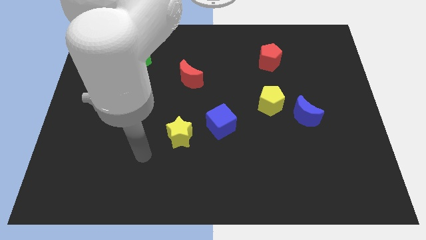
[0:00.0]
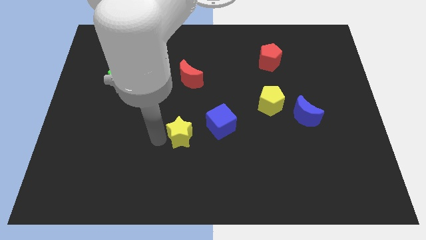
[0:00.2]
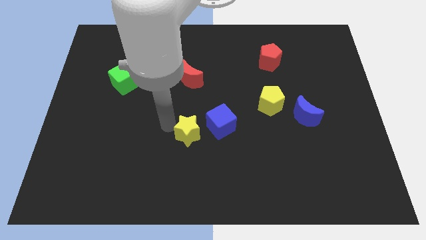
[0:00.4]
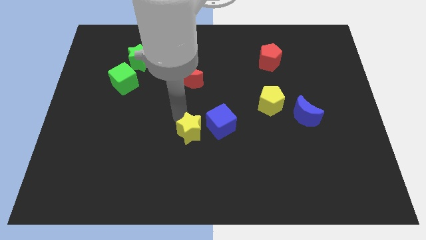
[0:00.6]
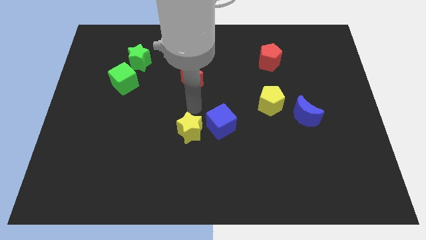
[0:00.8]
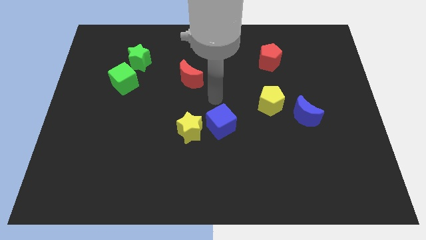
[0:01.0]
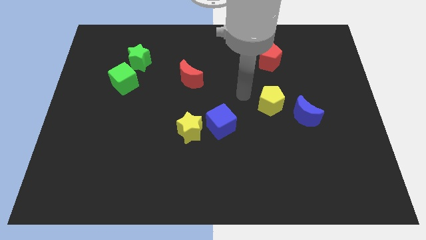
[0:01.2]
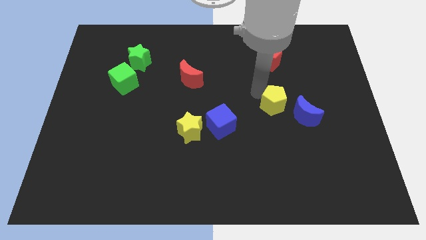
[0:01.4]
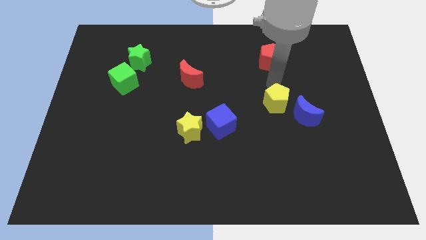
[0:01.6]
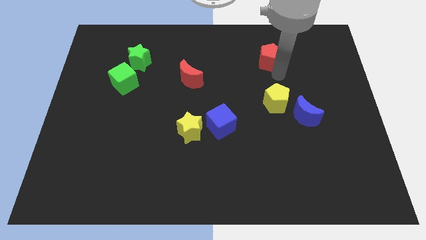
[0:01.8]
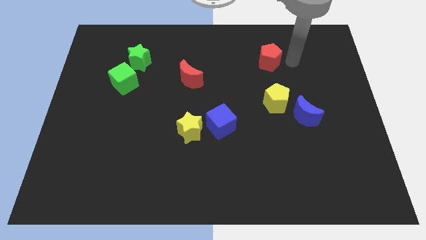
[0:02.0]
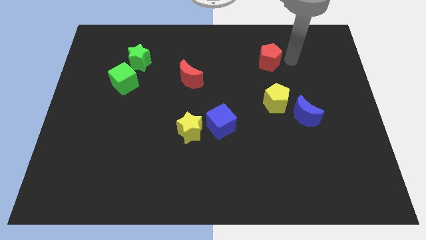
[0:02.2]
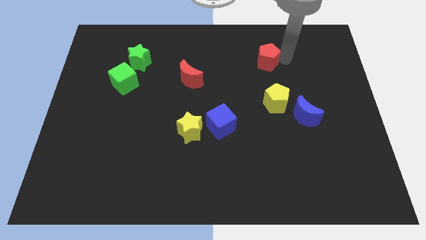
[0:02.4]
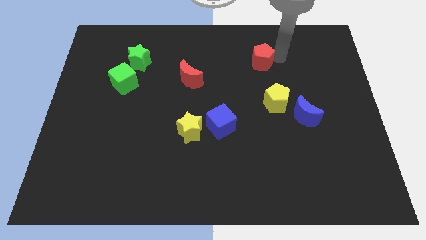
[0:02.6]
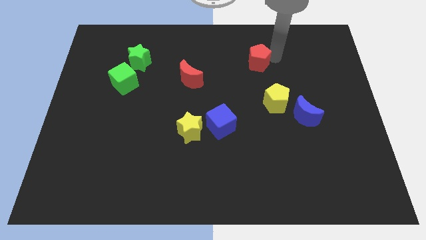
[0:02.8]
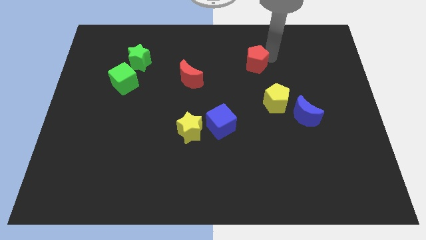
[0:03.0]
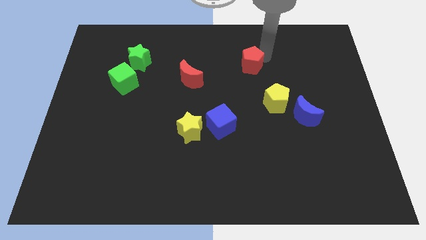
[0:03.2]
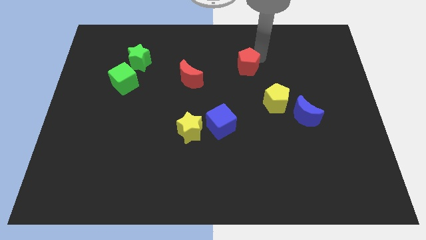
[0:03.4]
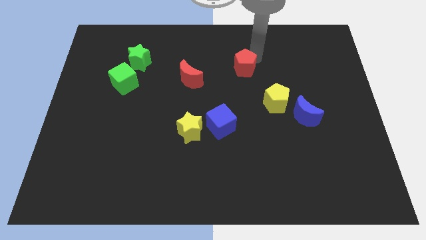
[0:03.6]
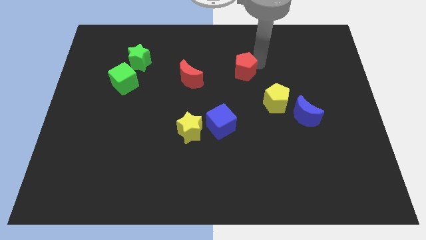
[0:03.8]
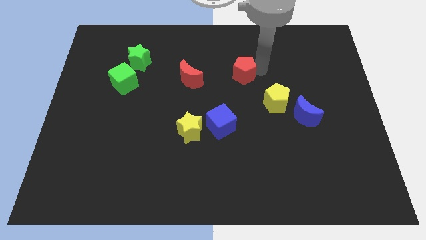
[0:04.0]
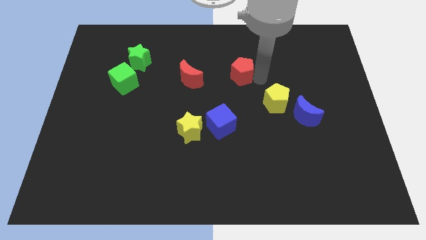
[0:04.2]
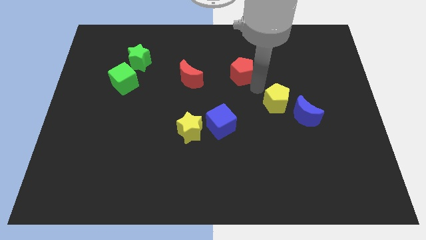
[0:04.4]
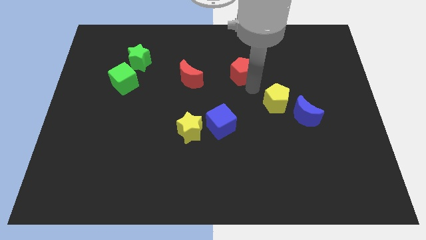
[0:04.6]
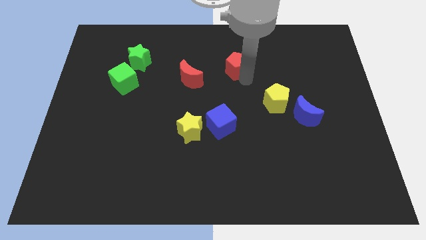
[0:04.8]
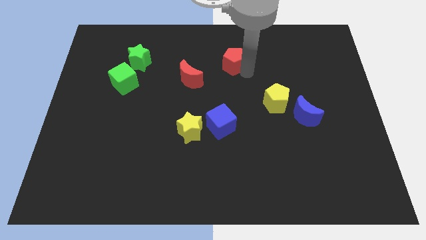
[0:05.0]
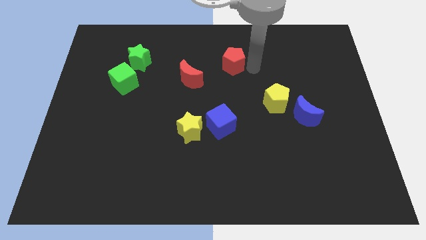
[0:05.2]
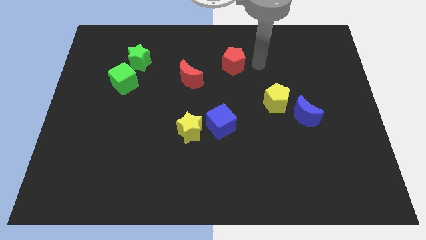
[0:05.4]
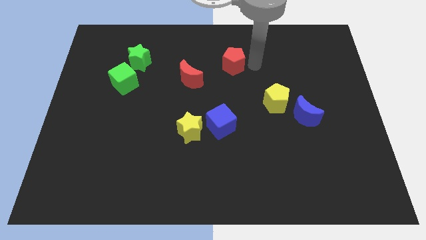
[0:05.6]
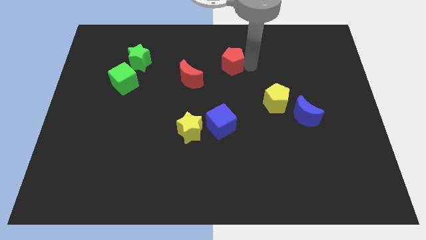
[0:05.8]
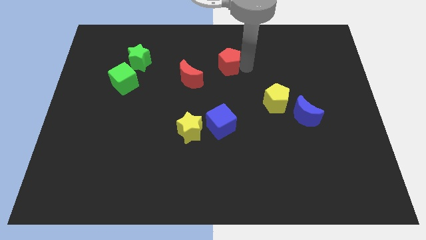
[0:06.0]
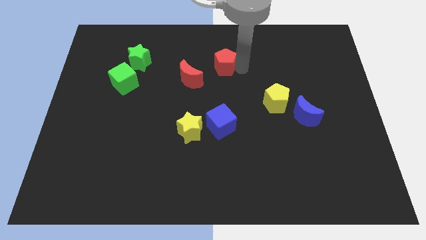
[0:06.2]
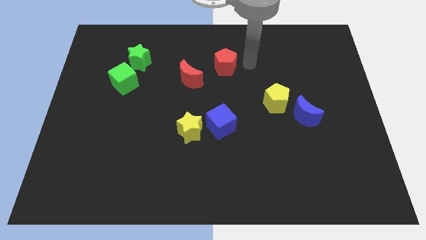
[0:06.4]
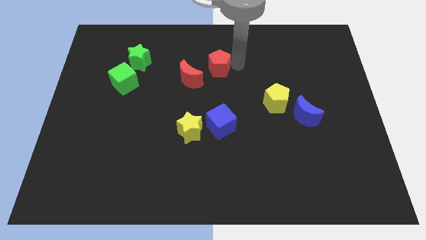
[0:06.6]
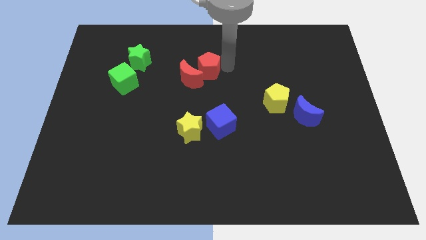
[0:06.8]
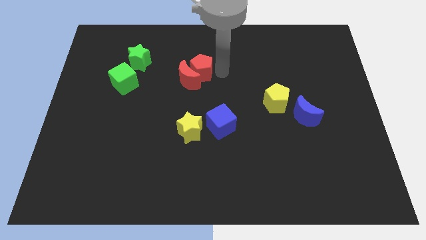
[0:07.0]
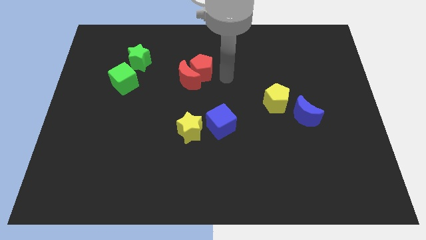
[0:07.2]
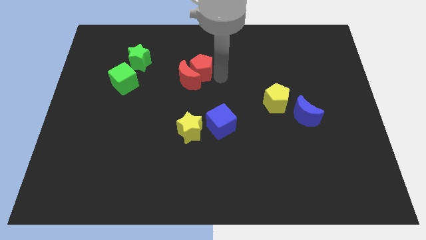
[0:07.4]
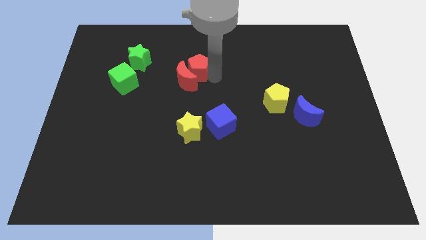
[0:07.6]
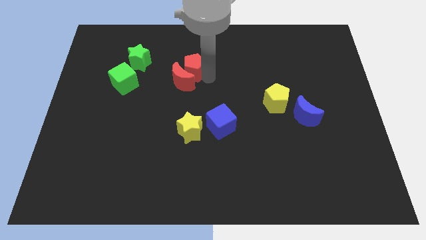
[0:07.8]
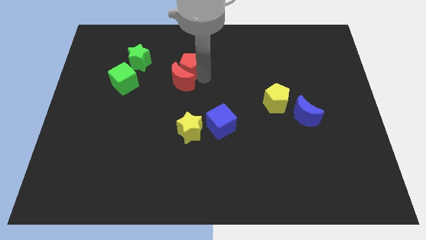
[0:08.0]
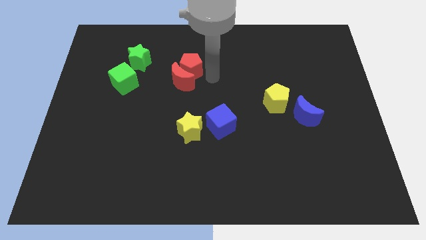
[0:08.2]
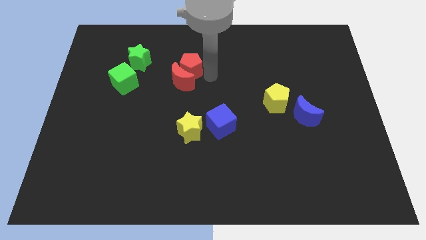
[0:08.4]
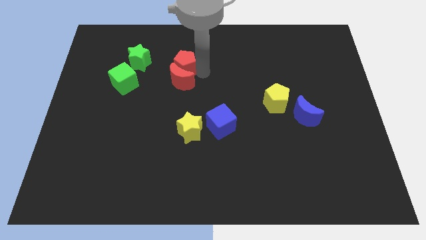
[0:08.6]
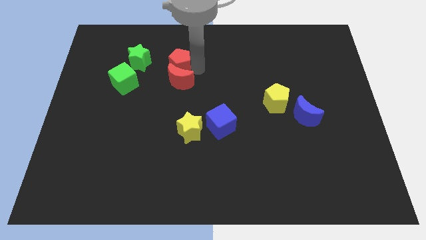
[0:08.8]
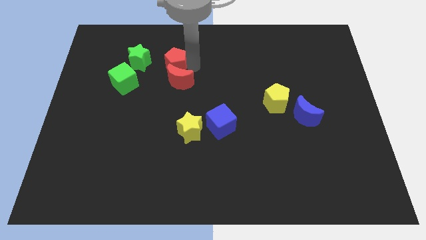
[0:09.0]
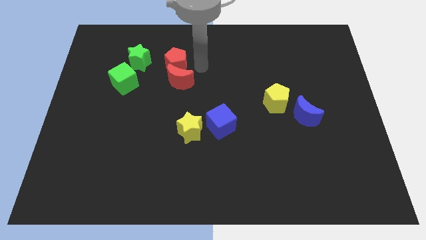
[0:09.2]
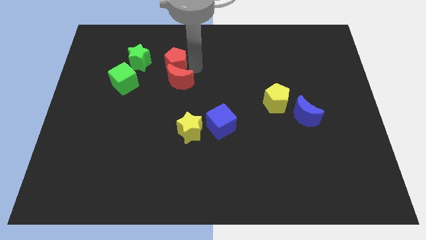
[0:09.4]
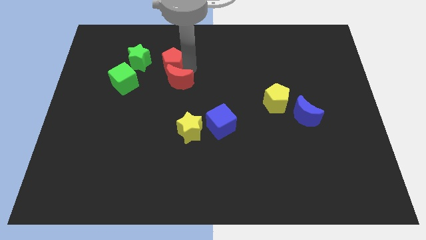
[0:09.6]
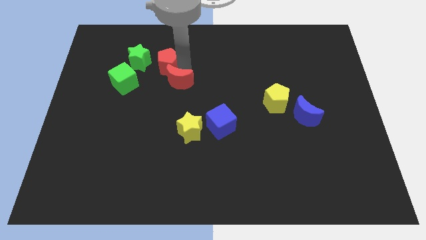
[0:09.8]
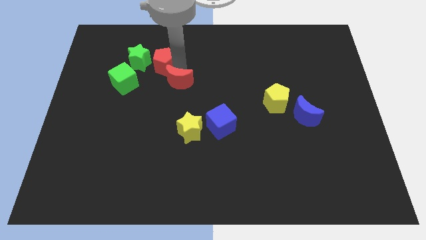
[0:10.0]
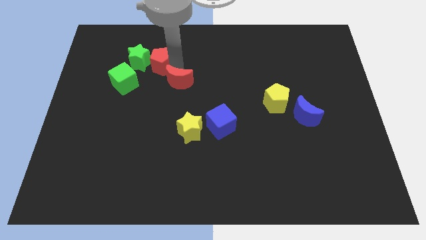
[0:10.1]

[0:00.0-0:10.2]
push the red pentagon towards the green star

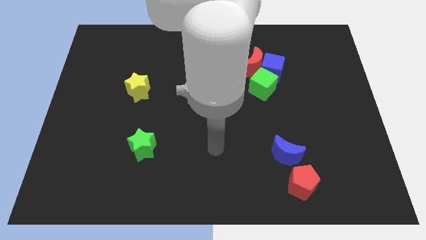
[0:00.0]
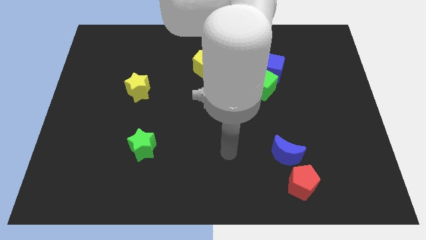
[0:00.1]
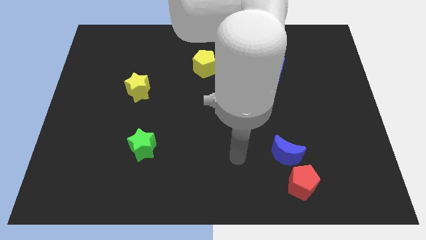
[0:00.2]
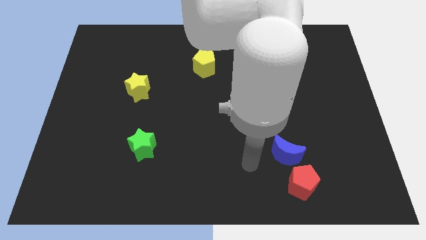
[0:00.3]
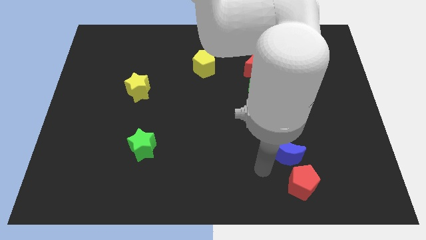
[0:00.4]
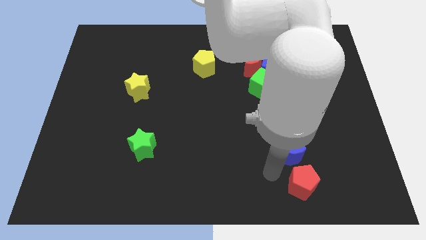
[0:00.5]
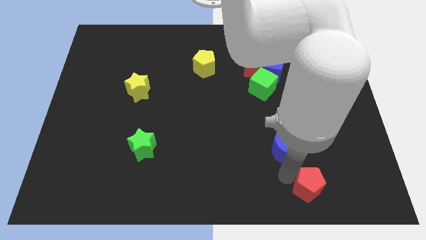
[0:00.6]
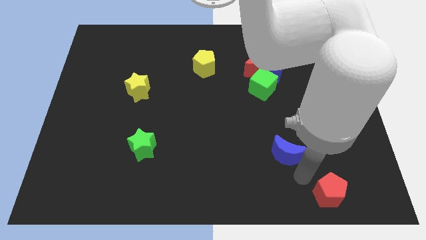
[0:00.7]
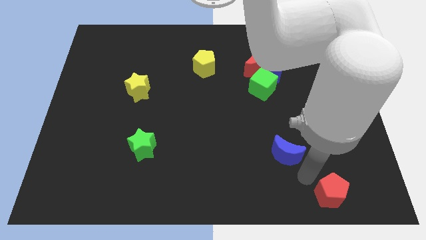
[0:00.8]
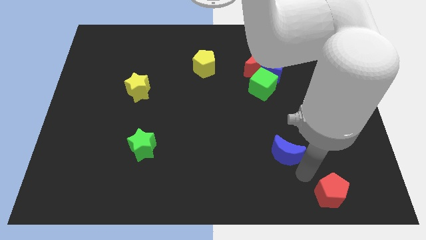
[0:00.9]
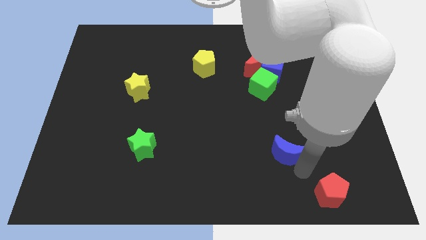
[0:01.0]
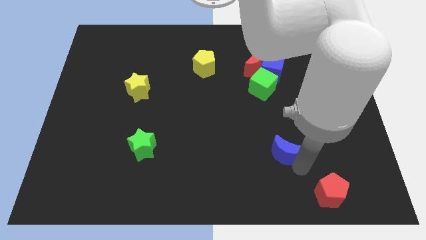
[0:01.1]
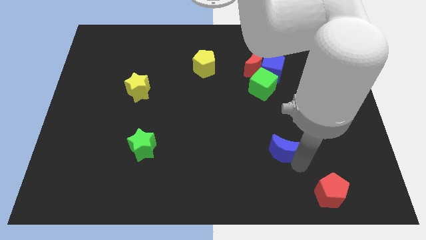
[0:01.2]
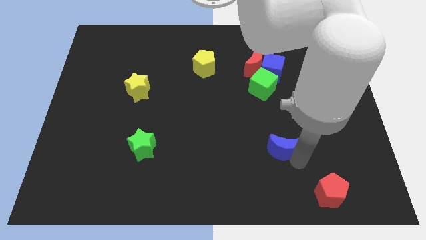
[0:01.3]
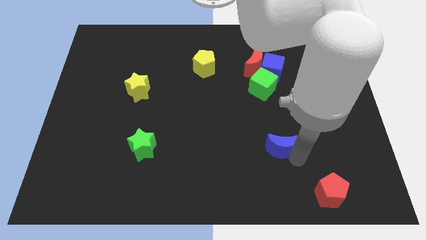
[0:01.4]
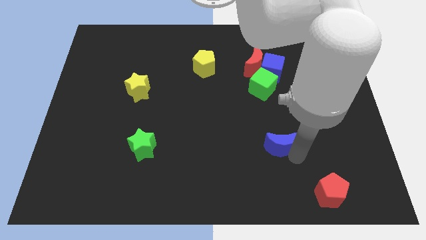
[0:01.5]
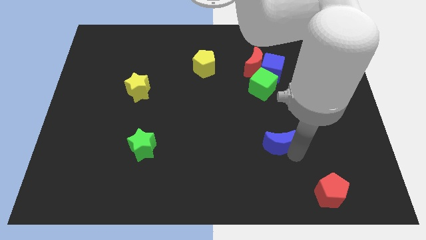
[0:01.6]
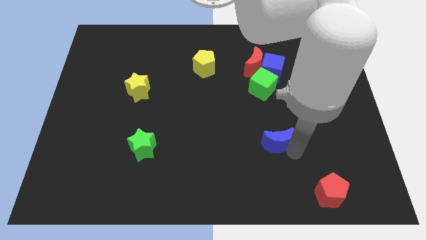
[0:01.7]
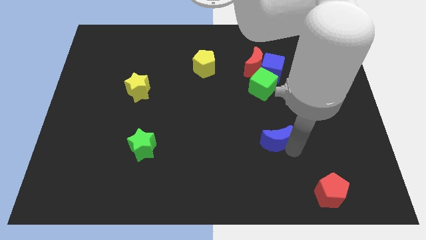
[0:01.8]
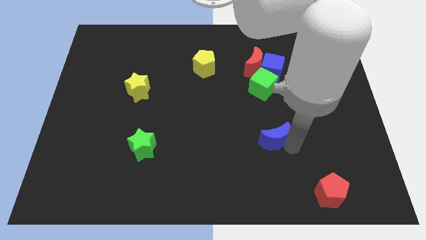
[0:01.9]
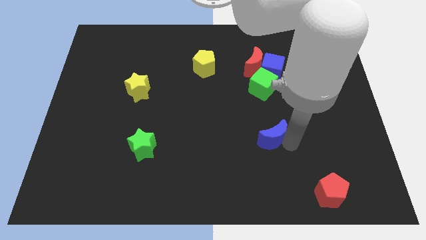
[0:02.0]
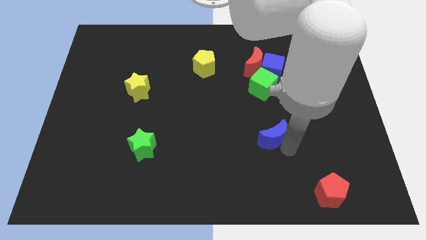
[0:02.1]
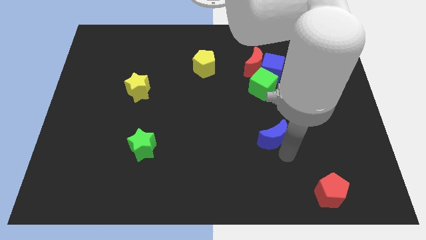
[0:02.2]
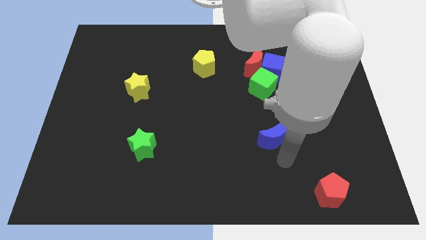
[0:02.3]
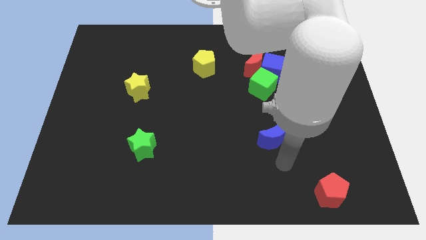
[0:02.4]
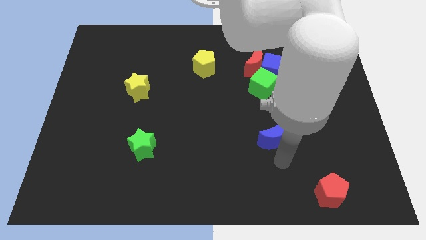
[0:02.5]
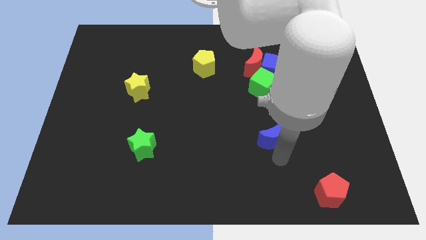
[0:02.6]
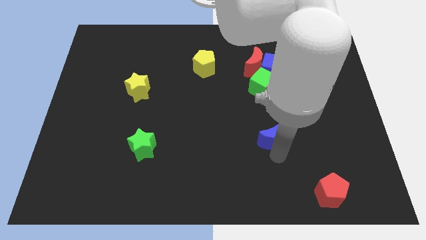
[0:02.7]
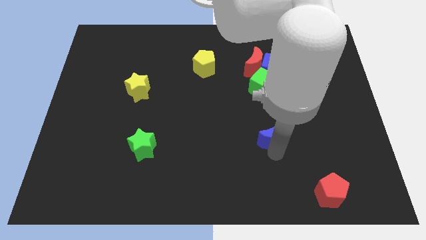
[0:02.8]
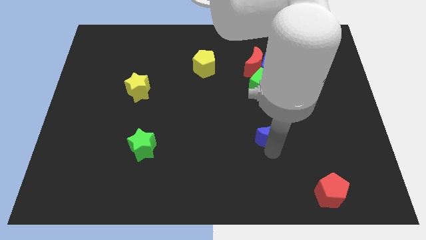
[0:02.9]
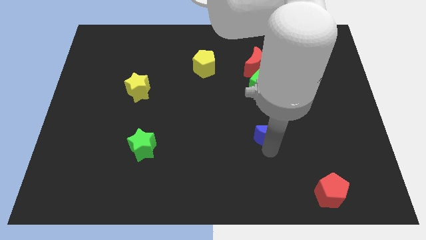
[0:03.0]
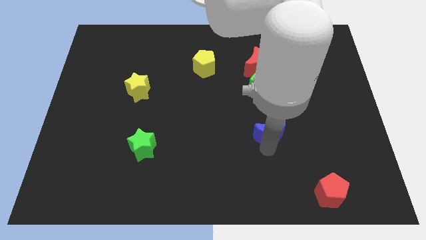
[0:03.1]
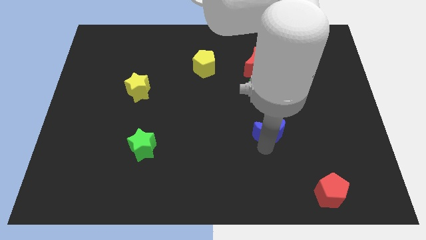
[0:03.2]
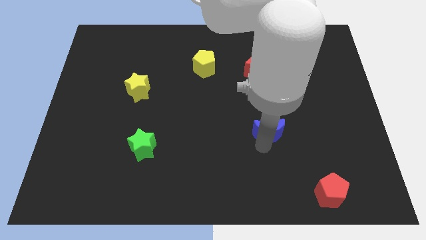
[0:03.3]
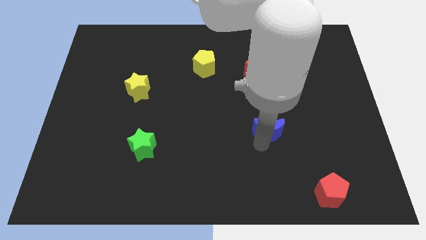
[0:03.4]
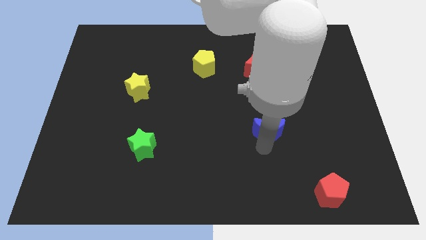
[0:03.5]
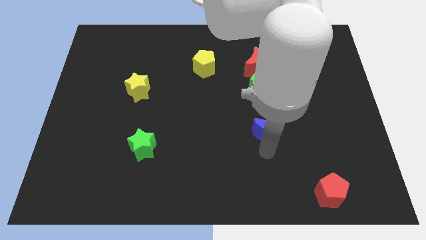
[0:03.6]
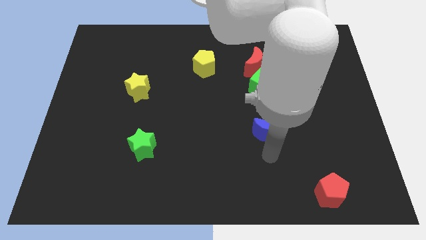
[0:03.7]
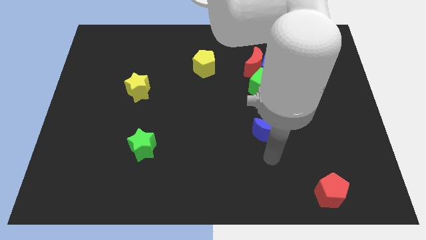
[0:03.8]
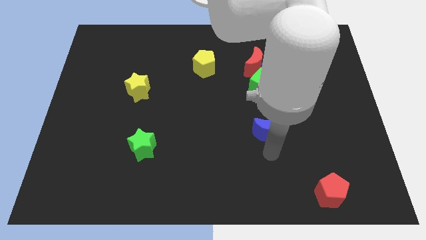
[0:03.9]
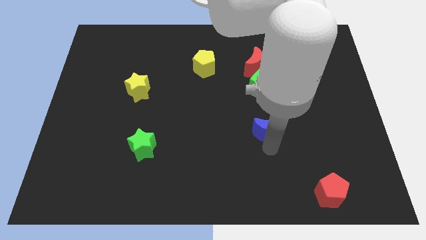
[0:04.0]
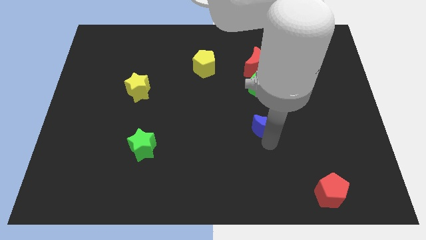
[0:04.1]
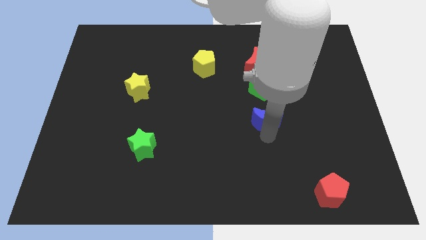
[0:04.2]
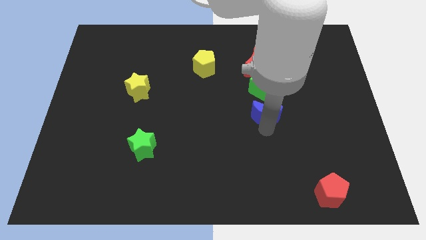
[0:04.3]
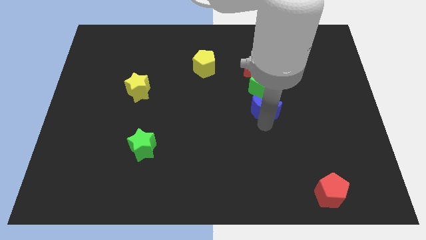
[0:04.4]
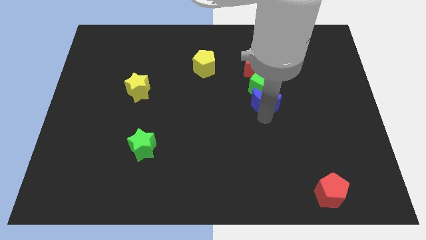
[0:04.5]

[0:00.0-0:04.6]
slide the blue moon close to the green cube
